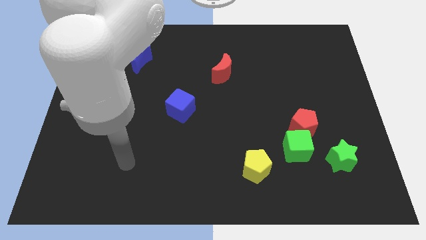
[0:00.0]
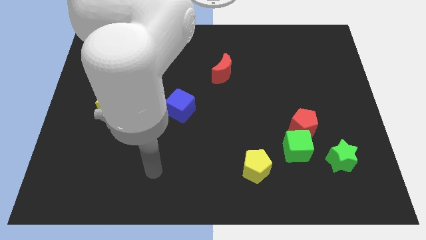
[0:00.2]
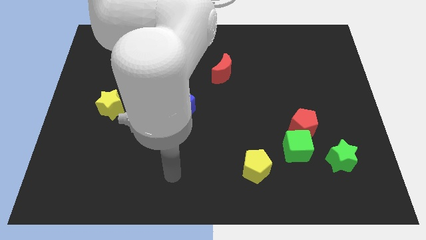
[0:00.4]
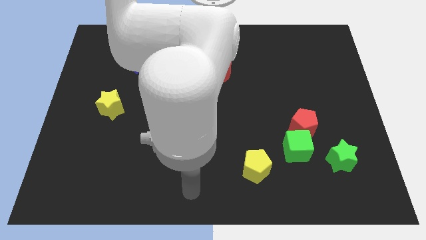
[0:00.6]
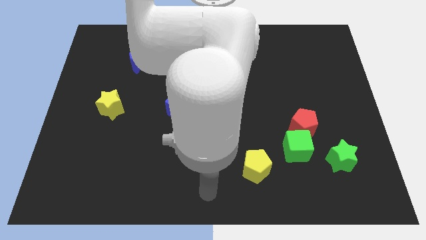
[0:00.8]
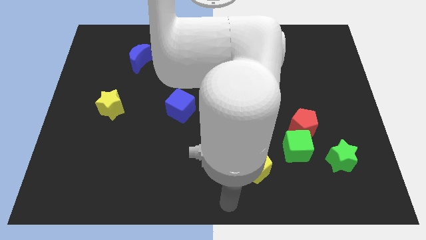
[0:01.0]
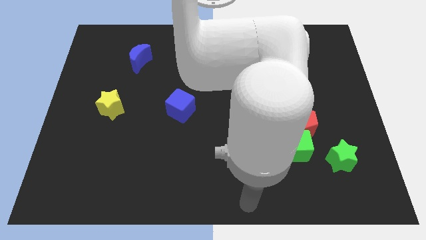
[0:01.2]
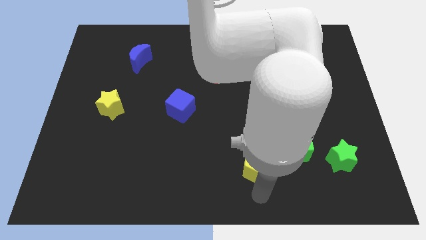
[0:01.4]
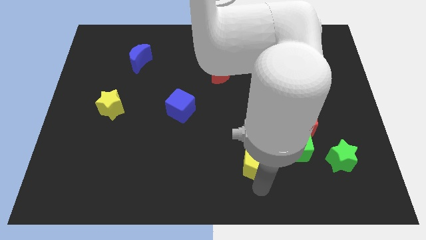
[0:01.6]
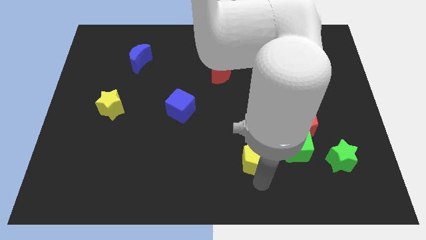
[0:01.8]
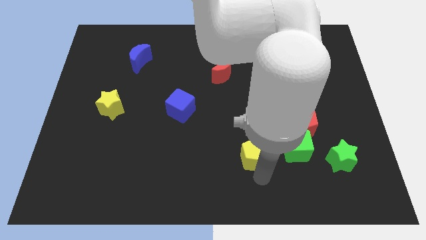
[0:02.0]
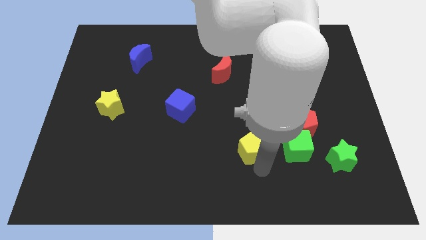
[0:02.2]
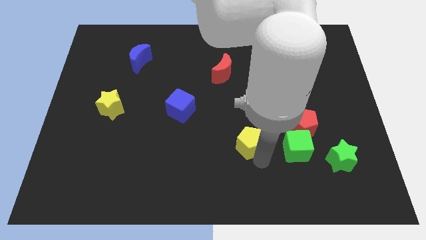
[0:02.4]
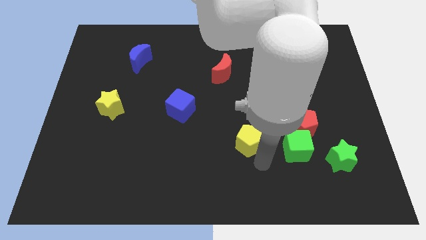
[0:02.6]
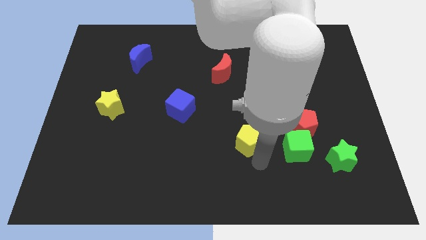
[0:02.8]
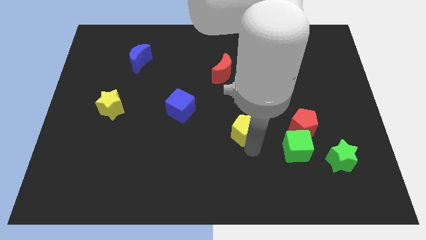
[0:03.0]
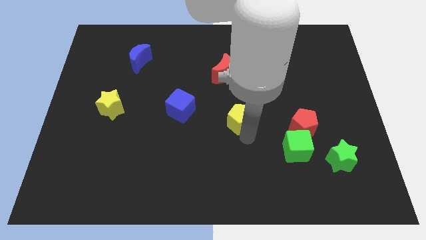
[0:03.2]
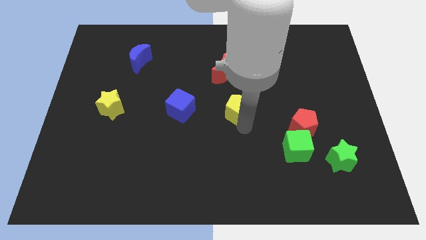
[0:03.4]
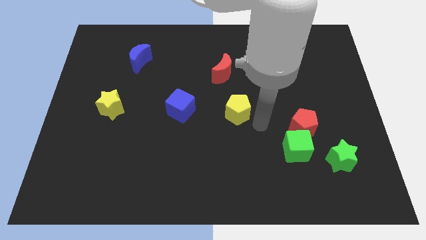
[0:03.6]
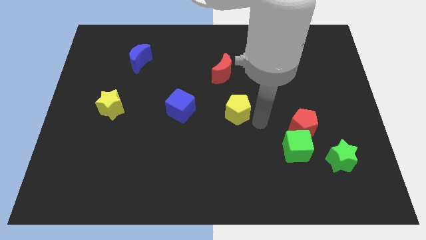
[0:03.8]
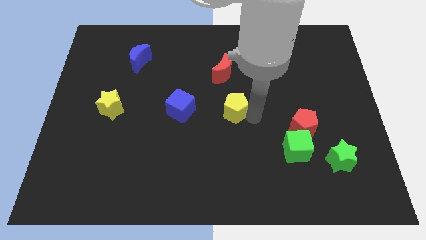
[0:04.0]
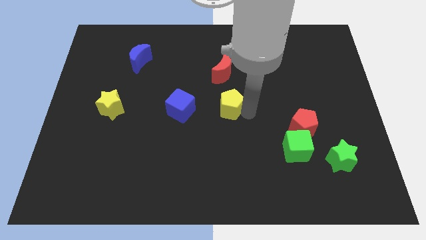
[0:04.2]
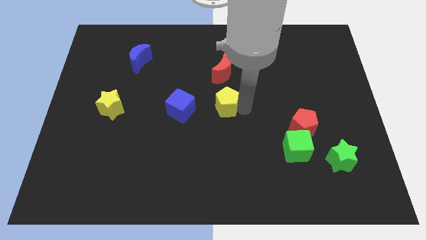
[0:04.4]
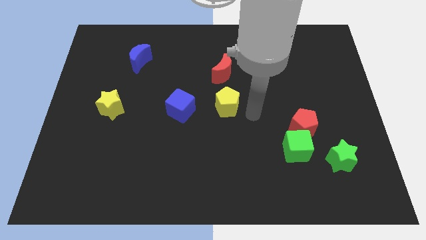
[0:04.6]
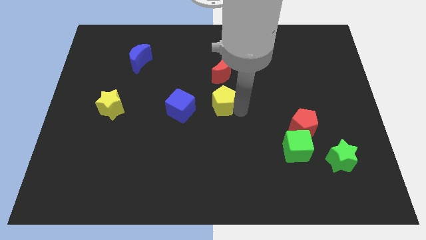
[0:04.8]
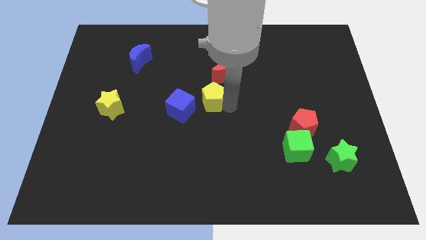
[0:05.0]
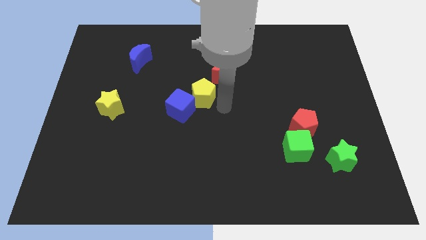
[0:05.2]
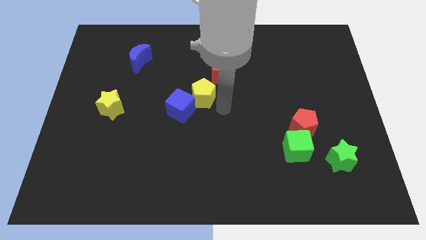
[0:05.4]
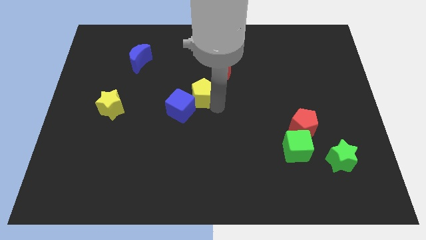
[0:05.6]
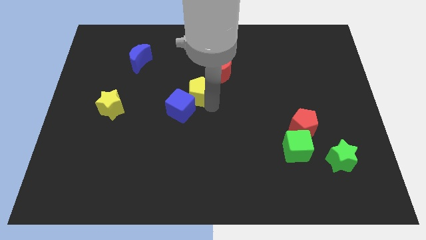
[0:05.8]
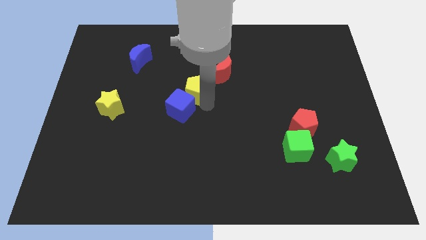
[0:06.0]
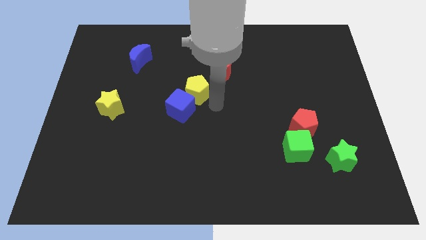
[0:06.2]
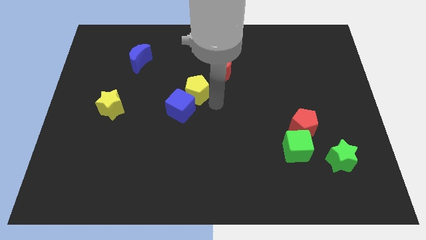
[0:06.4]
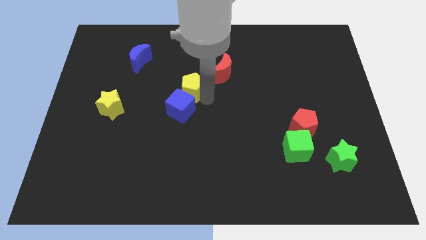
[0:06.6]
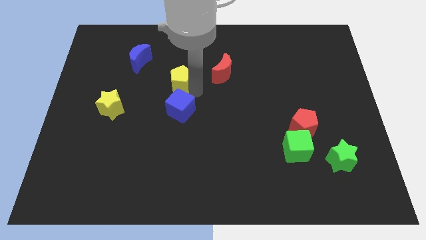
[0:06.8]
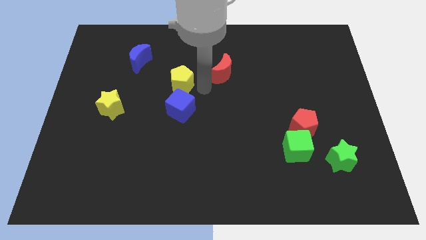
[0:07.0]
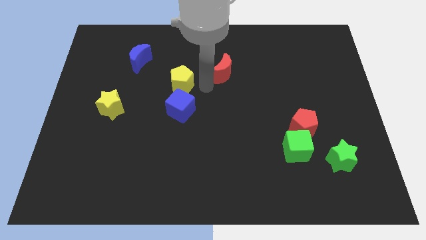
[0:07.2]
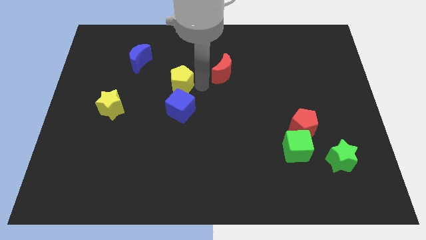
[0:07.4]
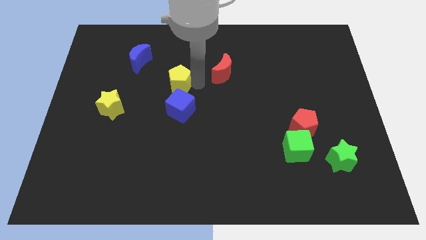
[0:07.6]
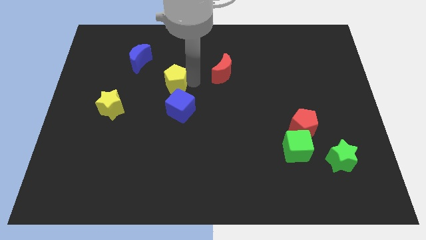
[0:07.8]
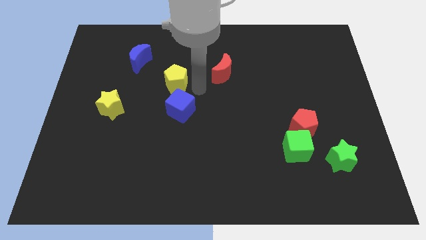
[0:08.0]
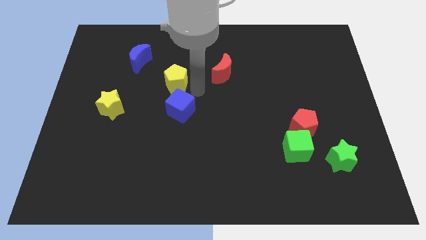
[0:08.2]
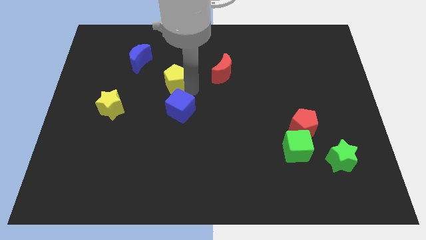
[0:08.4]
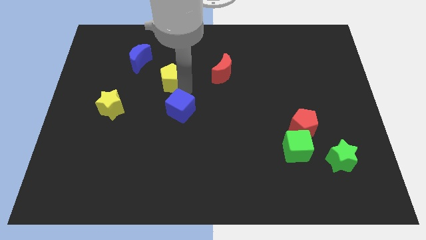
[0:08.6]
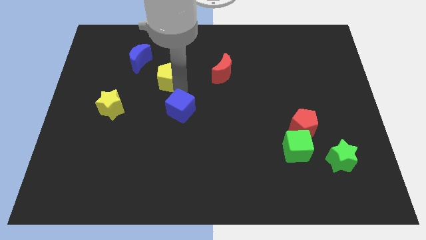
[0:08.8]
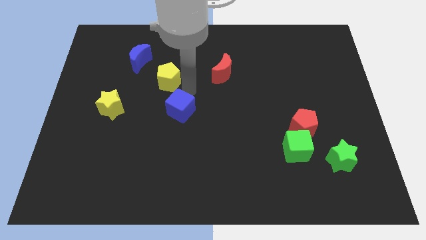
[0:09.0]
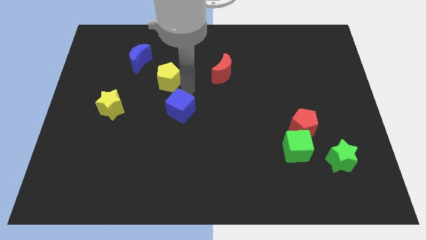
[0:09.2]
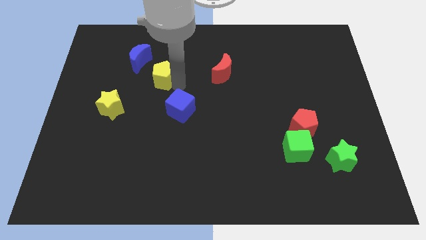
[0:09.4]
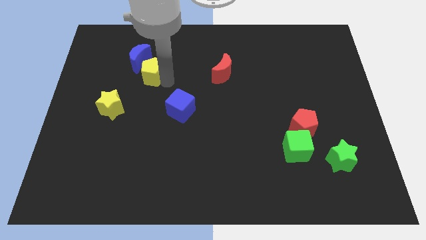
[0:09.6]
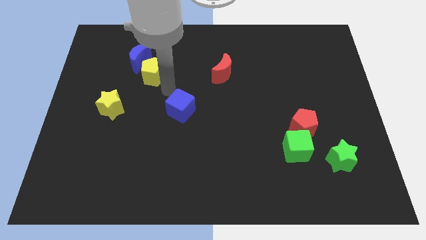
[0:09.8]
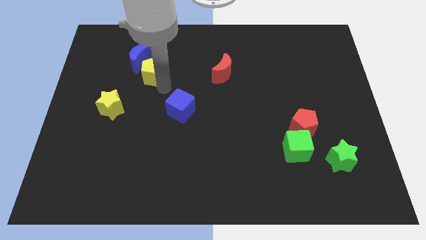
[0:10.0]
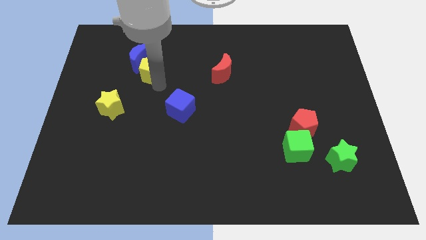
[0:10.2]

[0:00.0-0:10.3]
put the yellow pentagon next to the blue moon

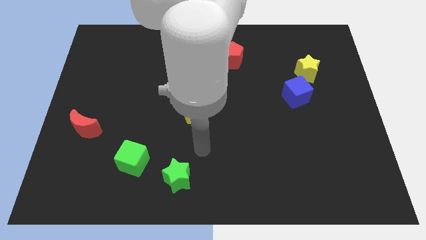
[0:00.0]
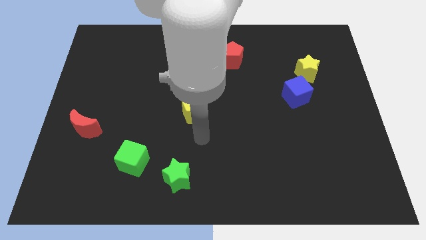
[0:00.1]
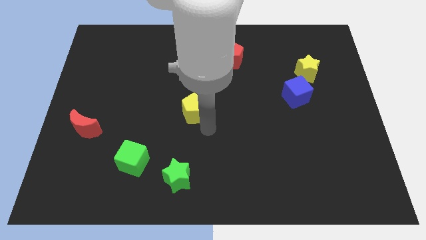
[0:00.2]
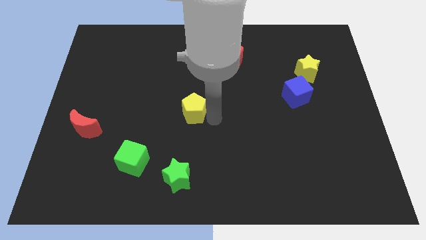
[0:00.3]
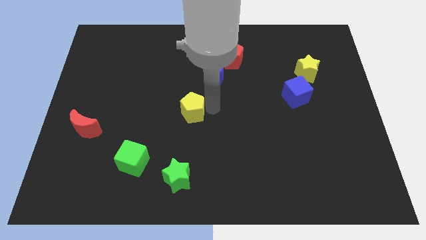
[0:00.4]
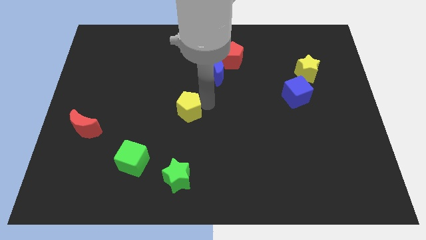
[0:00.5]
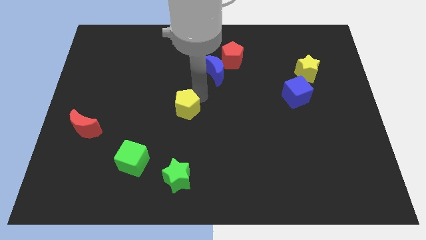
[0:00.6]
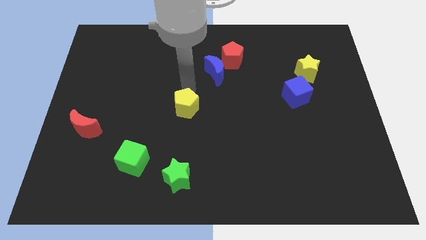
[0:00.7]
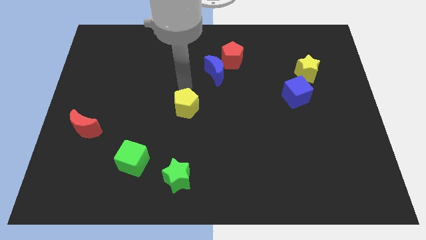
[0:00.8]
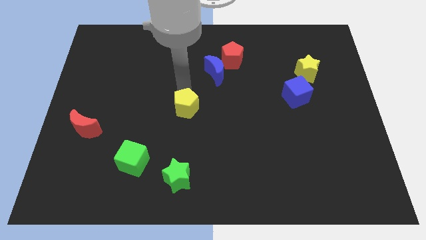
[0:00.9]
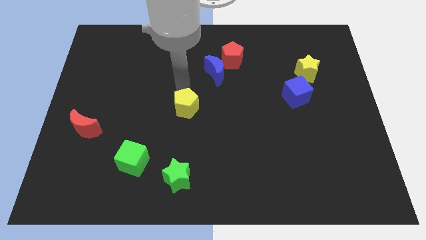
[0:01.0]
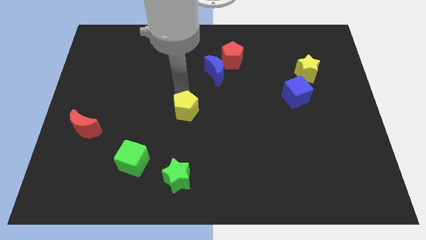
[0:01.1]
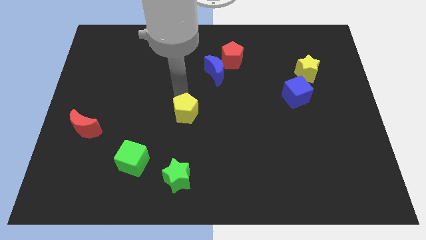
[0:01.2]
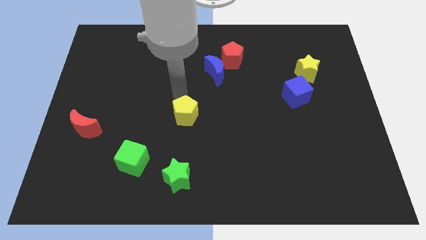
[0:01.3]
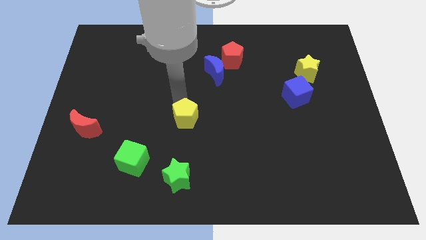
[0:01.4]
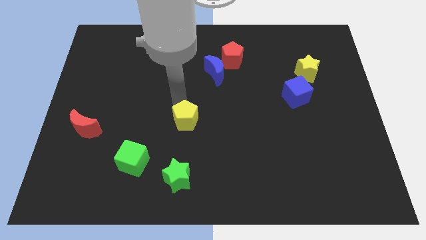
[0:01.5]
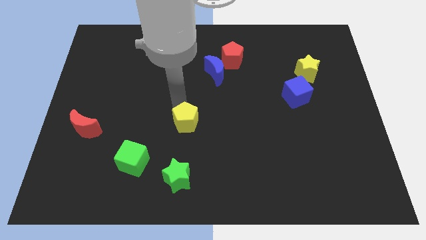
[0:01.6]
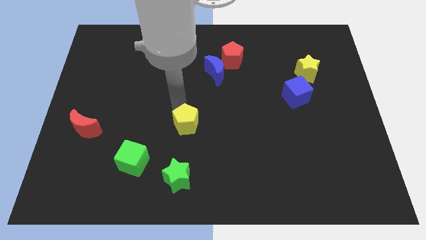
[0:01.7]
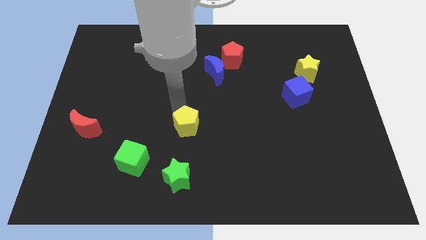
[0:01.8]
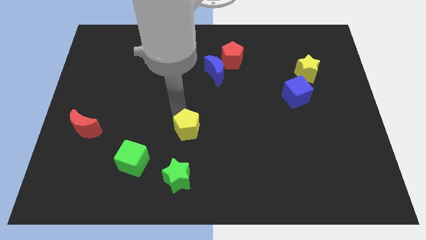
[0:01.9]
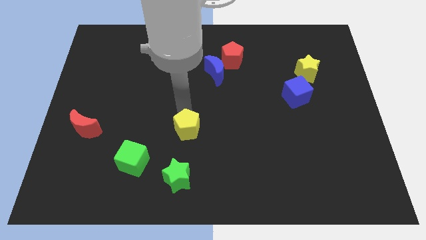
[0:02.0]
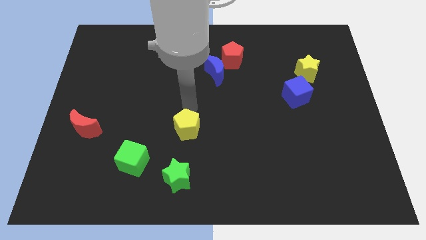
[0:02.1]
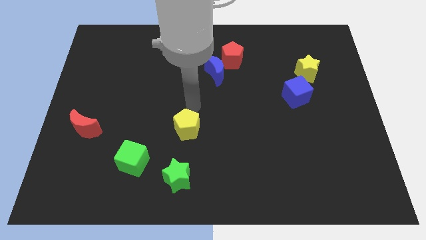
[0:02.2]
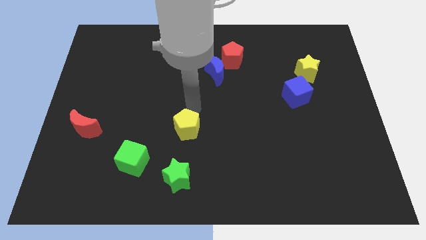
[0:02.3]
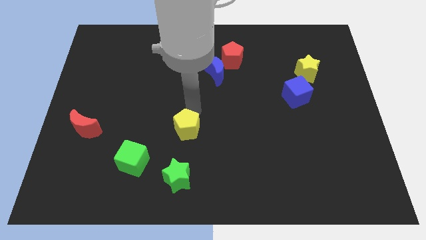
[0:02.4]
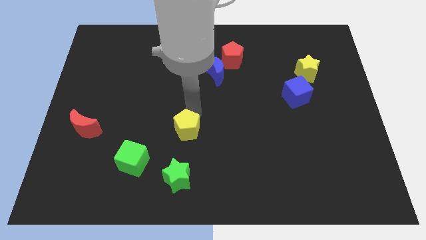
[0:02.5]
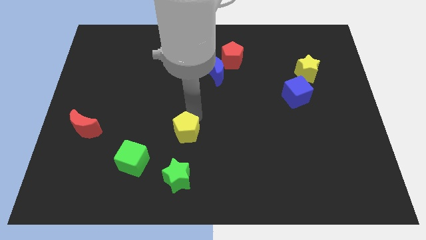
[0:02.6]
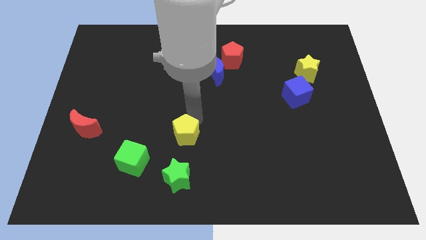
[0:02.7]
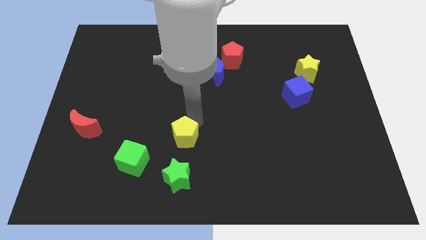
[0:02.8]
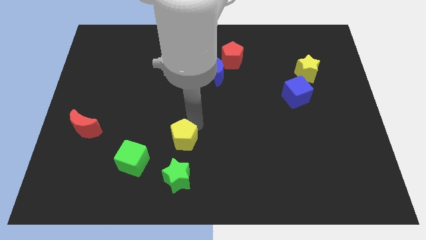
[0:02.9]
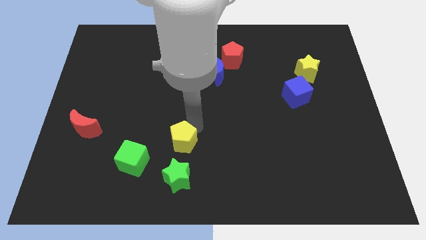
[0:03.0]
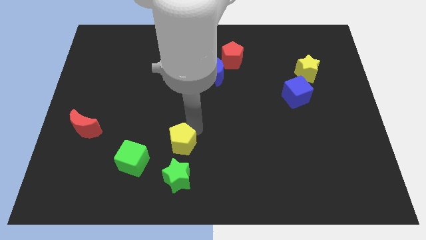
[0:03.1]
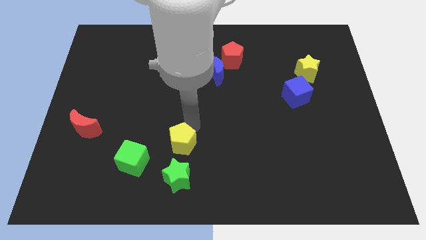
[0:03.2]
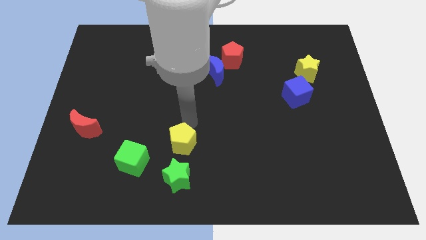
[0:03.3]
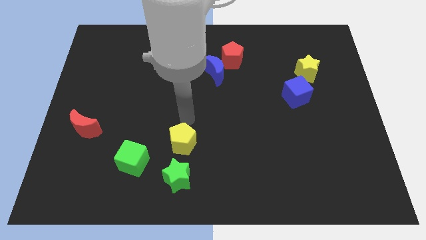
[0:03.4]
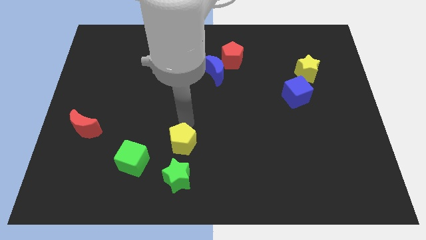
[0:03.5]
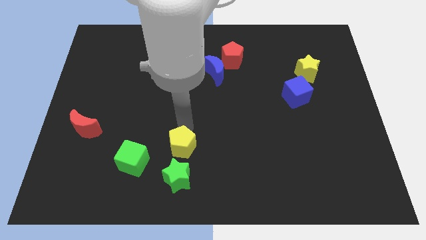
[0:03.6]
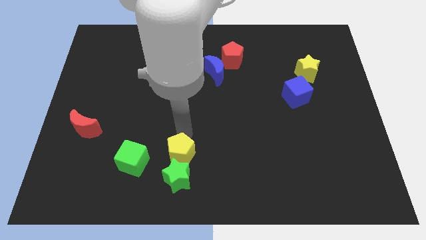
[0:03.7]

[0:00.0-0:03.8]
put the yellow pentagon close to the green star
